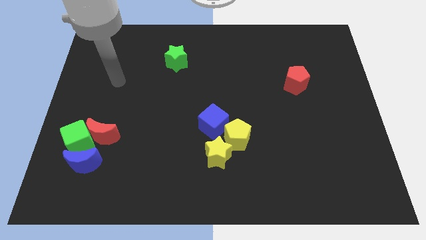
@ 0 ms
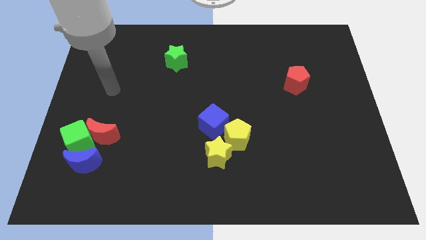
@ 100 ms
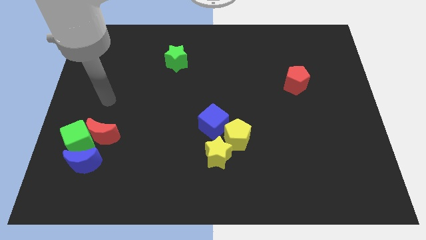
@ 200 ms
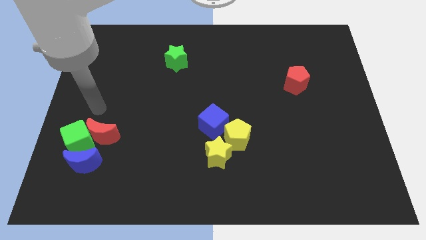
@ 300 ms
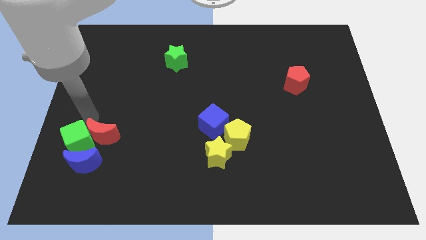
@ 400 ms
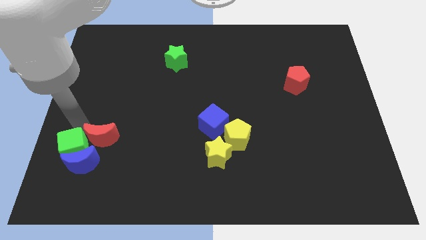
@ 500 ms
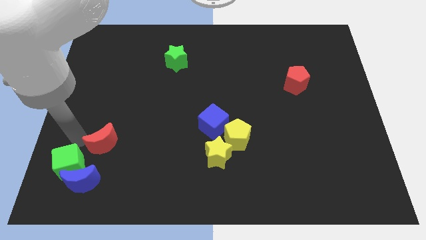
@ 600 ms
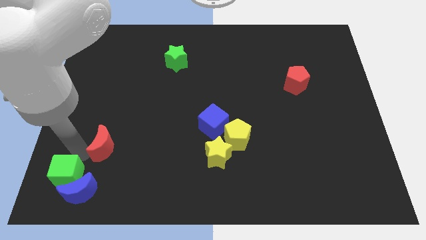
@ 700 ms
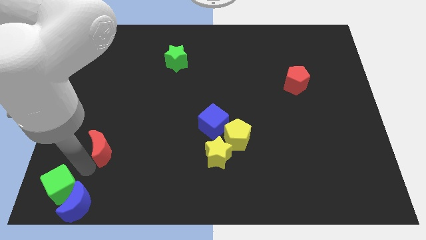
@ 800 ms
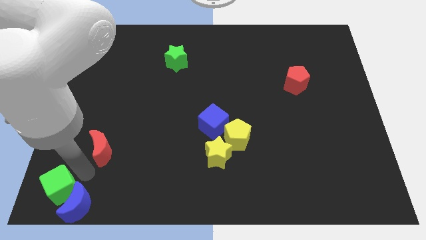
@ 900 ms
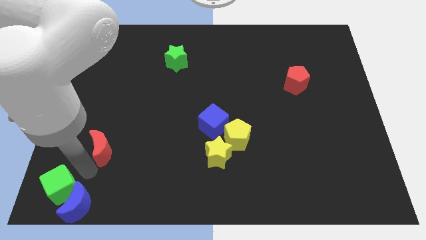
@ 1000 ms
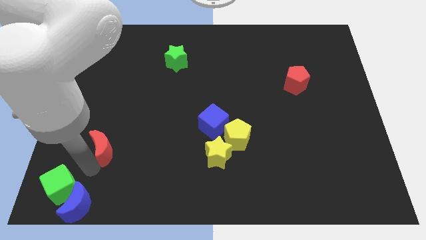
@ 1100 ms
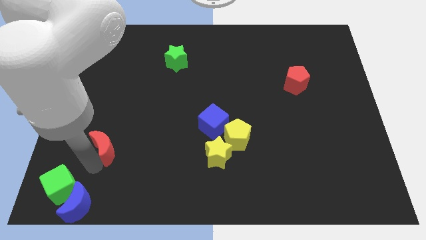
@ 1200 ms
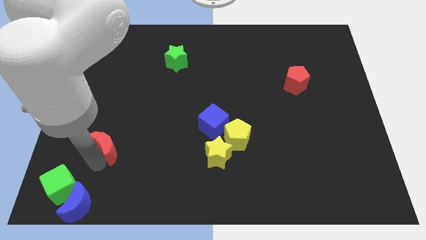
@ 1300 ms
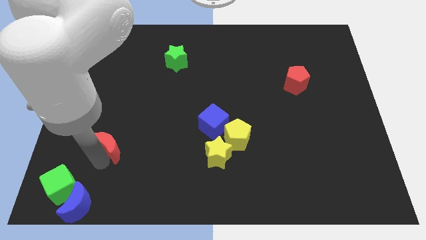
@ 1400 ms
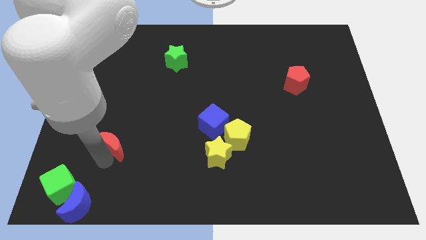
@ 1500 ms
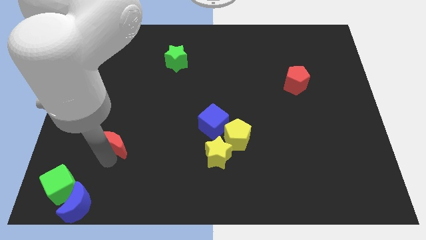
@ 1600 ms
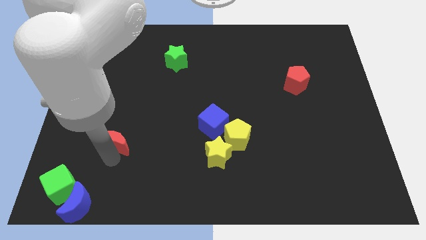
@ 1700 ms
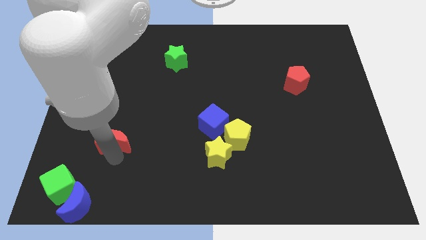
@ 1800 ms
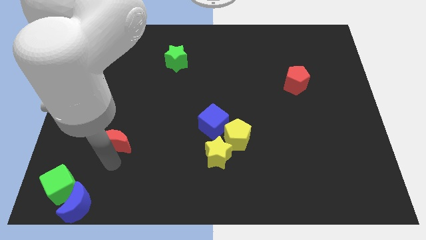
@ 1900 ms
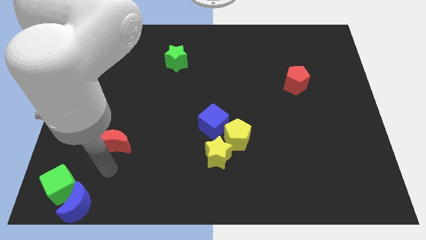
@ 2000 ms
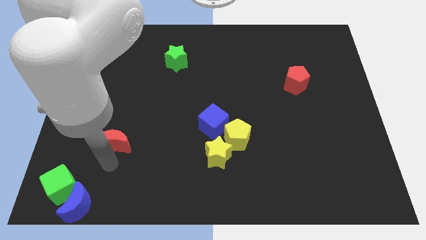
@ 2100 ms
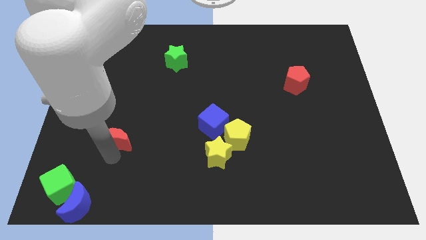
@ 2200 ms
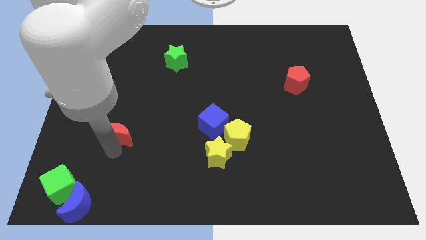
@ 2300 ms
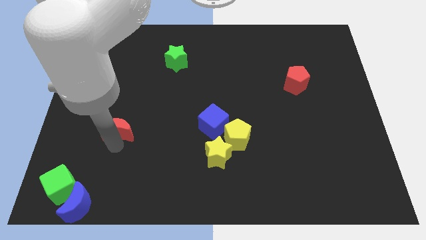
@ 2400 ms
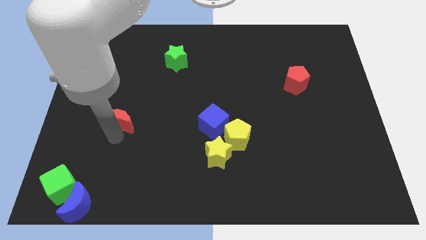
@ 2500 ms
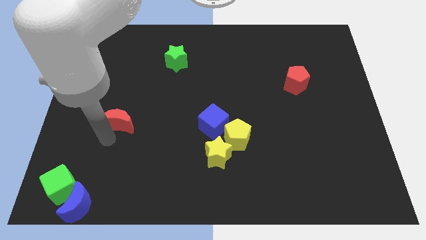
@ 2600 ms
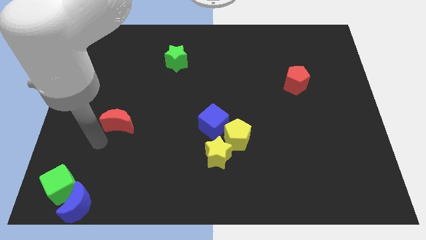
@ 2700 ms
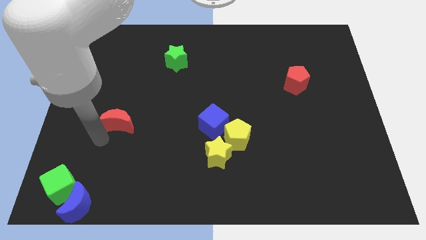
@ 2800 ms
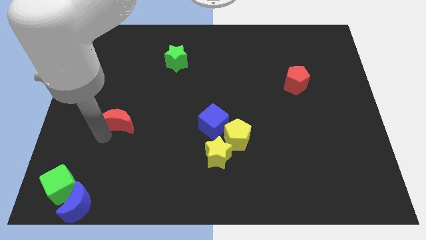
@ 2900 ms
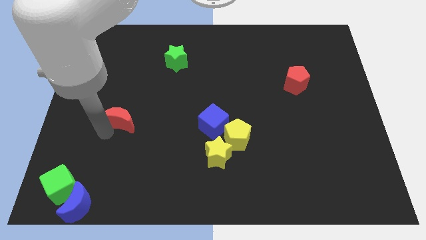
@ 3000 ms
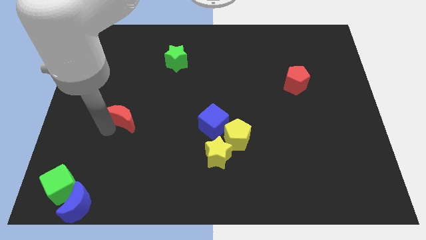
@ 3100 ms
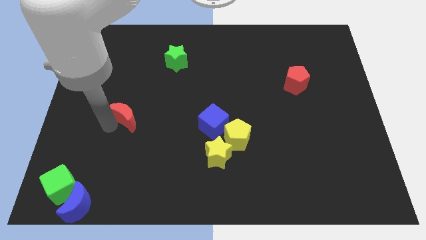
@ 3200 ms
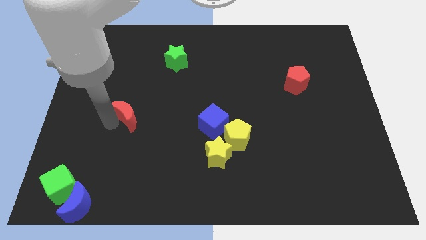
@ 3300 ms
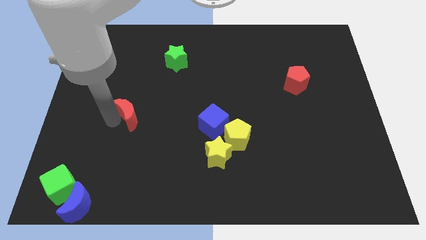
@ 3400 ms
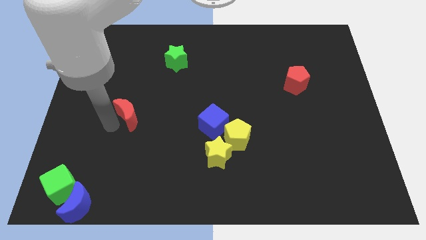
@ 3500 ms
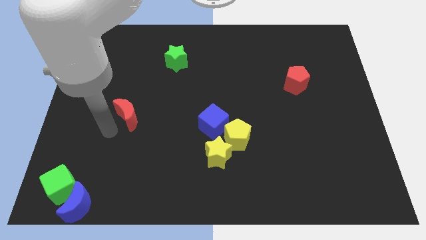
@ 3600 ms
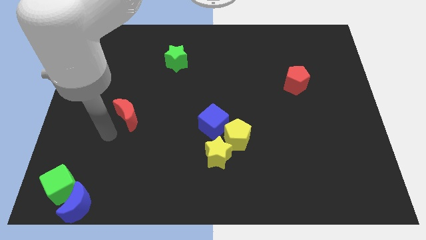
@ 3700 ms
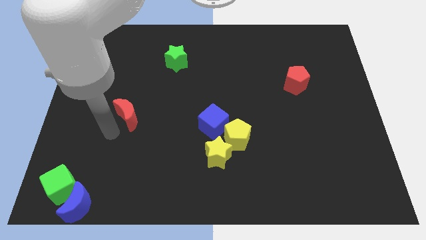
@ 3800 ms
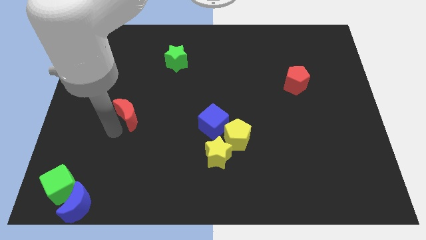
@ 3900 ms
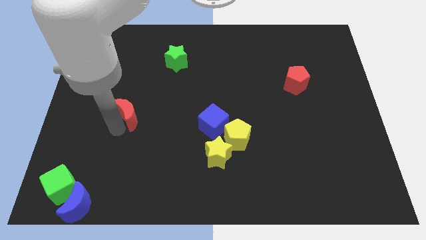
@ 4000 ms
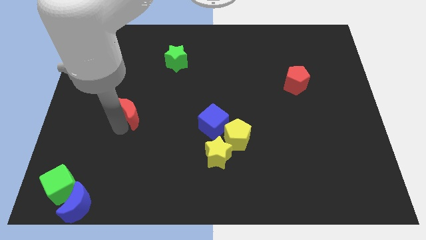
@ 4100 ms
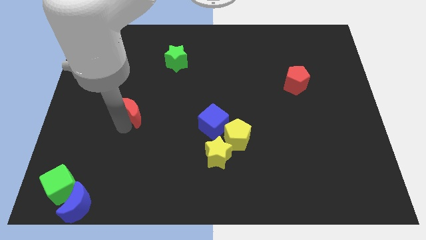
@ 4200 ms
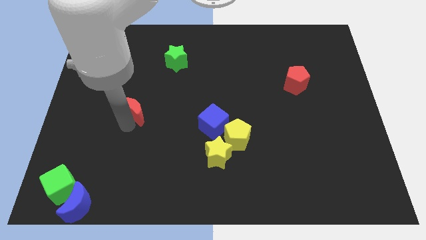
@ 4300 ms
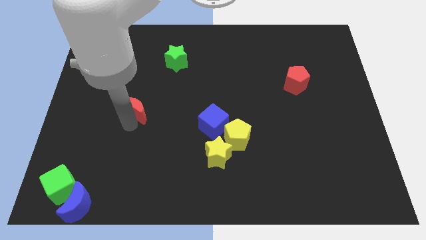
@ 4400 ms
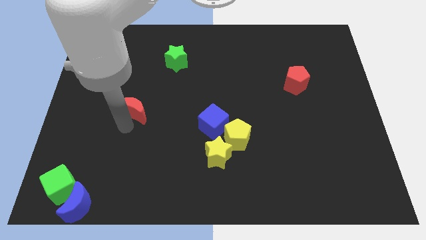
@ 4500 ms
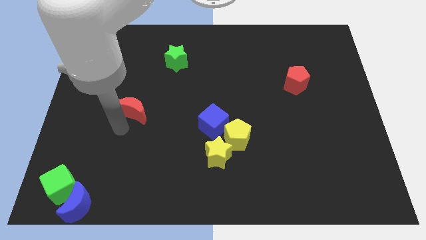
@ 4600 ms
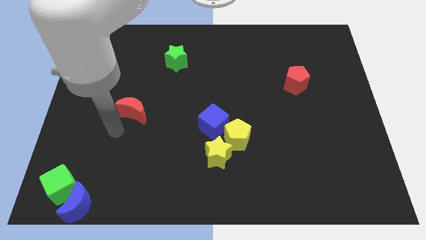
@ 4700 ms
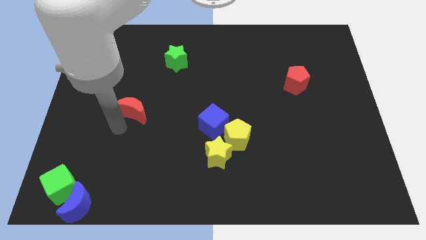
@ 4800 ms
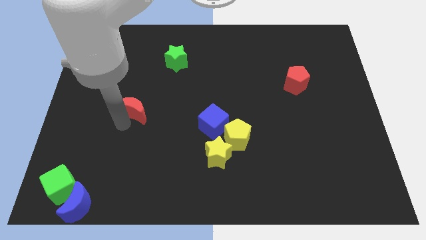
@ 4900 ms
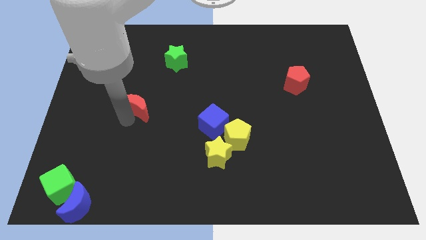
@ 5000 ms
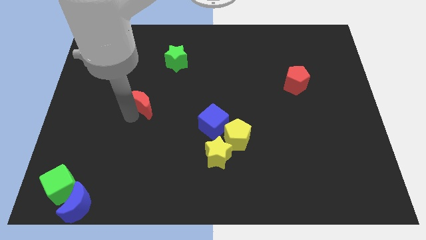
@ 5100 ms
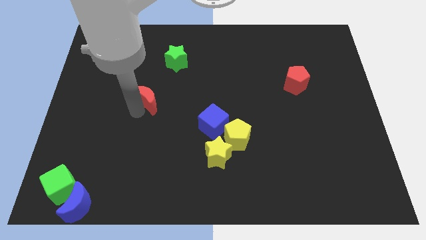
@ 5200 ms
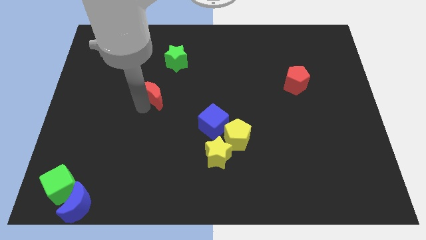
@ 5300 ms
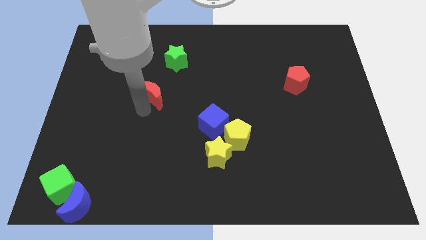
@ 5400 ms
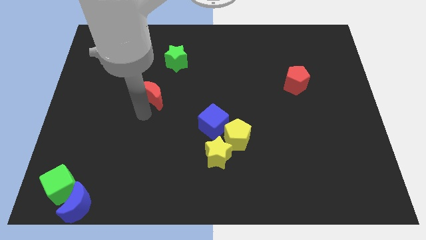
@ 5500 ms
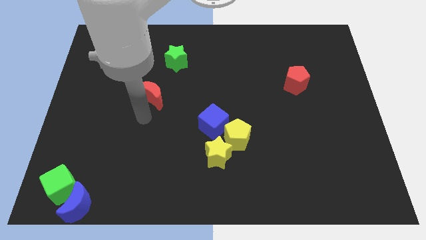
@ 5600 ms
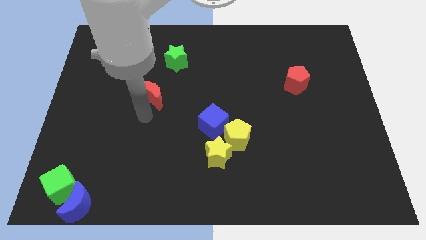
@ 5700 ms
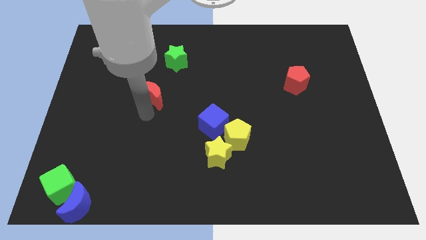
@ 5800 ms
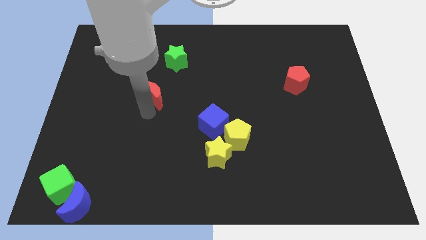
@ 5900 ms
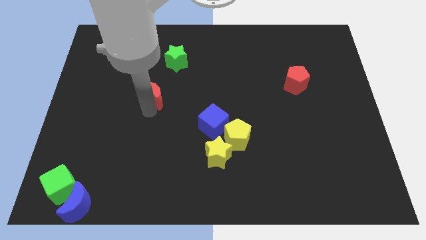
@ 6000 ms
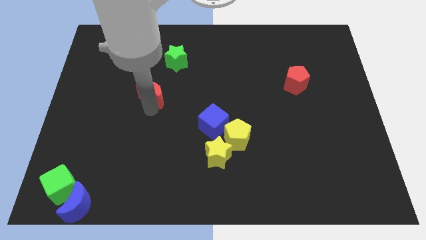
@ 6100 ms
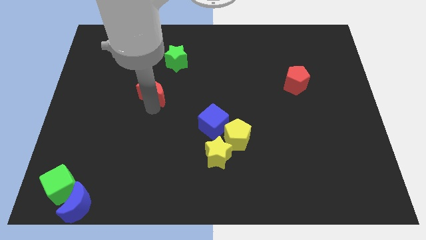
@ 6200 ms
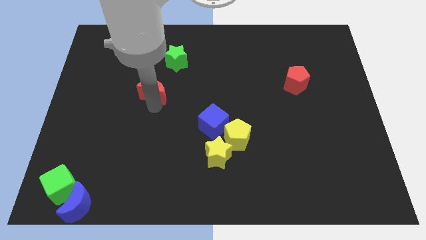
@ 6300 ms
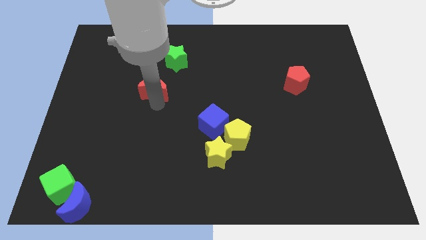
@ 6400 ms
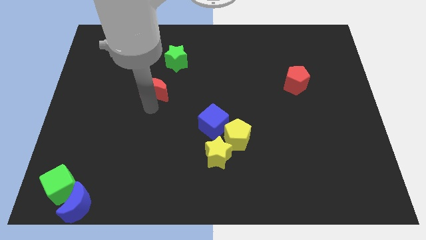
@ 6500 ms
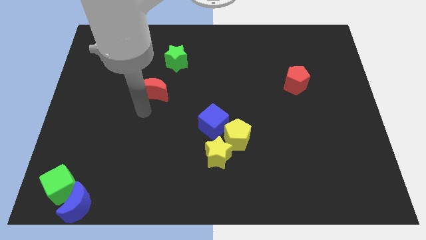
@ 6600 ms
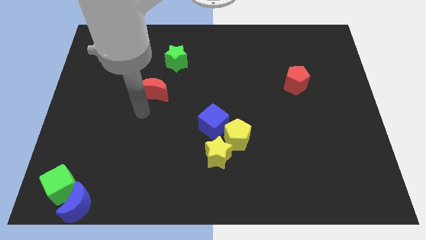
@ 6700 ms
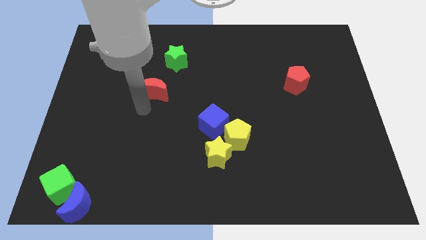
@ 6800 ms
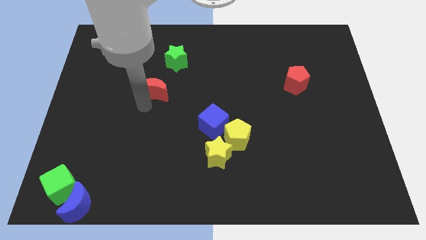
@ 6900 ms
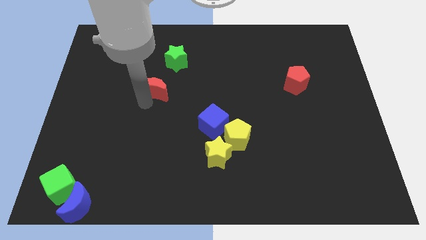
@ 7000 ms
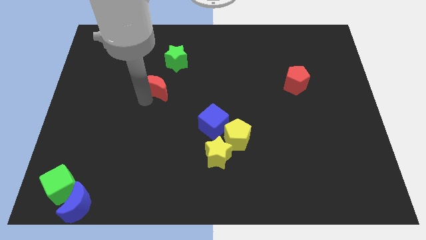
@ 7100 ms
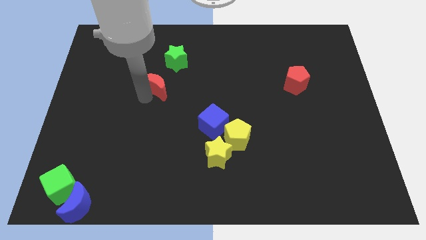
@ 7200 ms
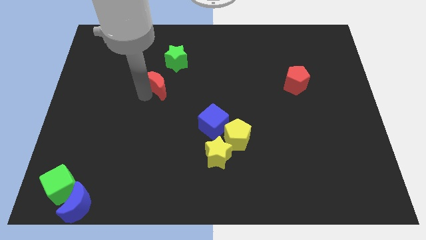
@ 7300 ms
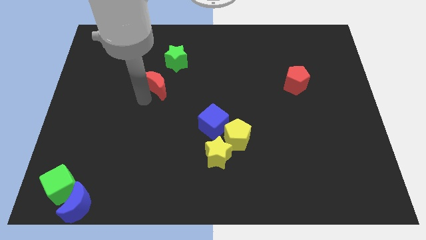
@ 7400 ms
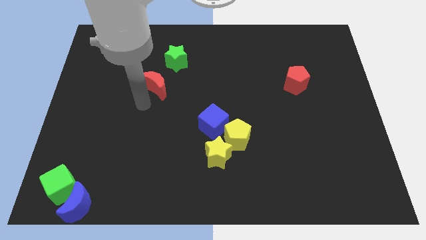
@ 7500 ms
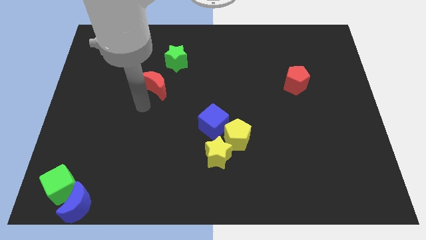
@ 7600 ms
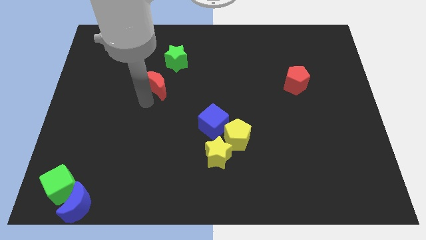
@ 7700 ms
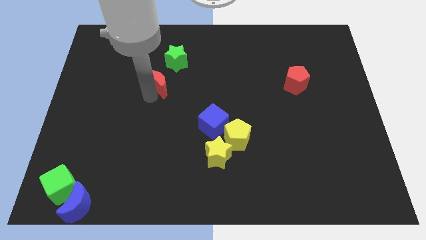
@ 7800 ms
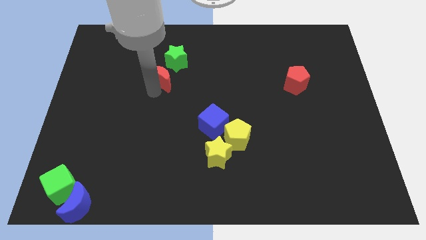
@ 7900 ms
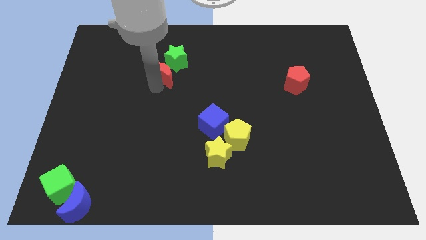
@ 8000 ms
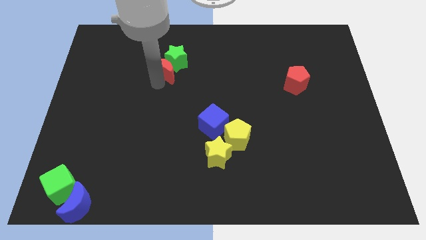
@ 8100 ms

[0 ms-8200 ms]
move the red moon next to the green star
